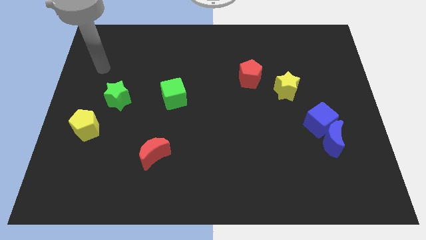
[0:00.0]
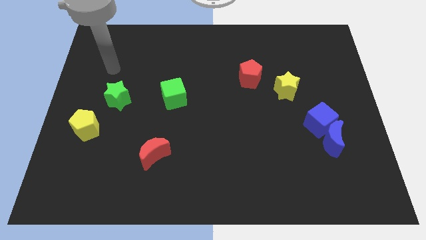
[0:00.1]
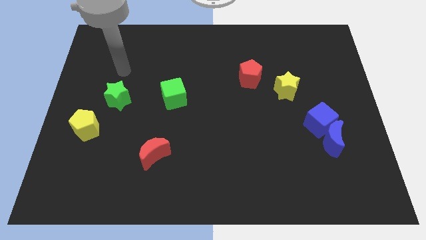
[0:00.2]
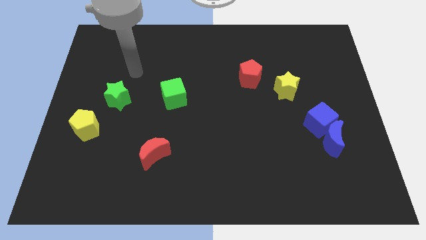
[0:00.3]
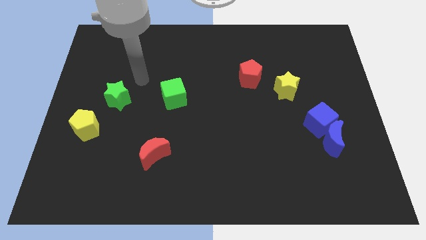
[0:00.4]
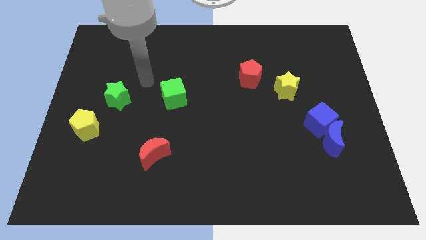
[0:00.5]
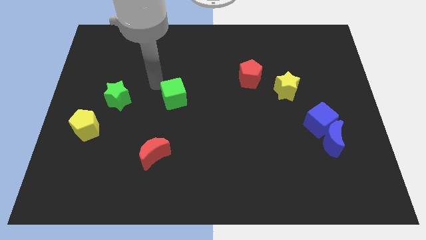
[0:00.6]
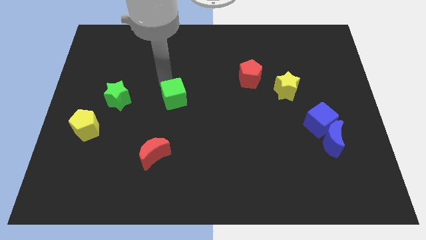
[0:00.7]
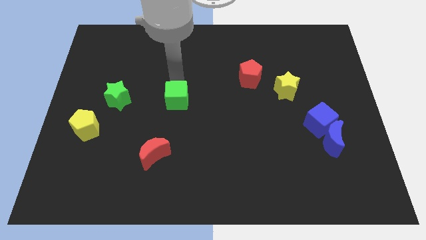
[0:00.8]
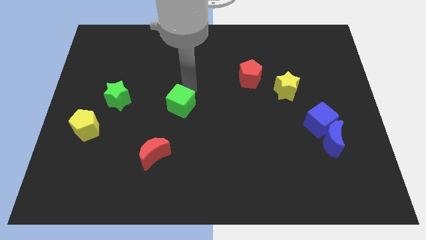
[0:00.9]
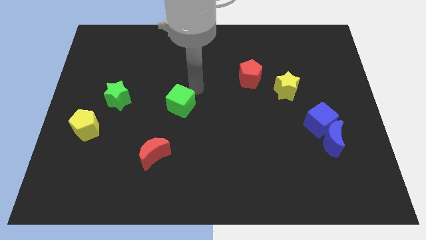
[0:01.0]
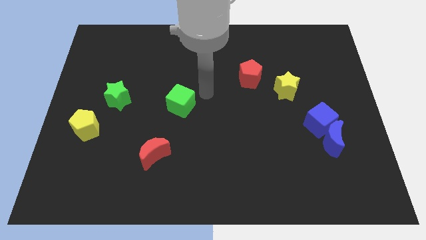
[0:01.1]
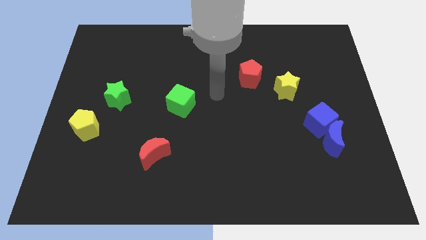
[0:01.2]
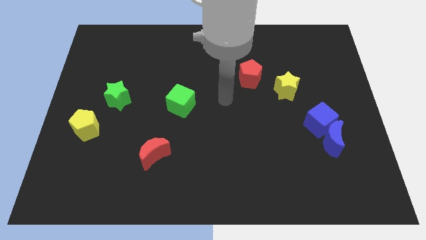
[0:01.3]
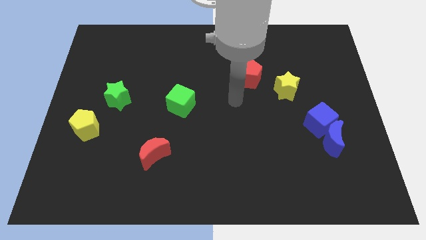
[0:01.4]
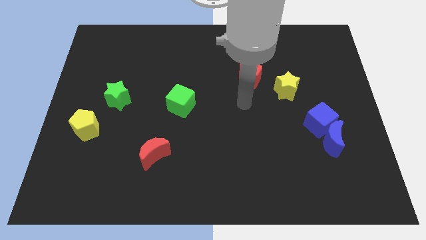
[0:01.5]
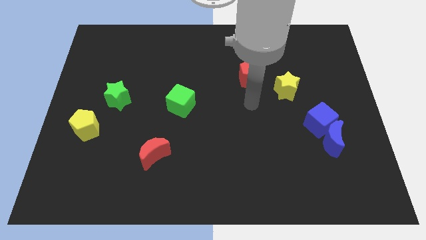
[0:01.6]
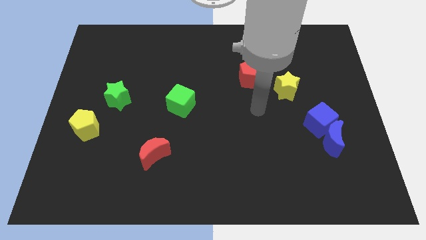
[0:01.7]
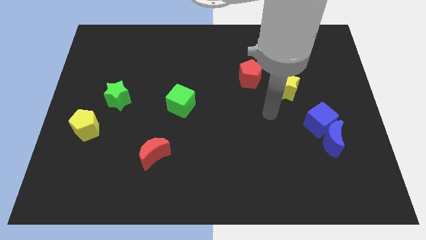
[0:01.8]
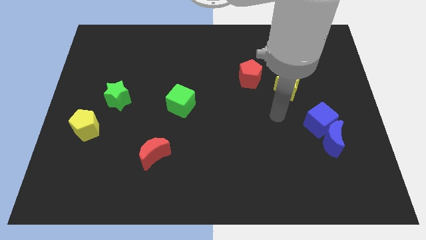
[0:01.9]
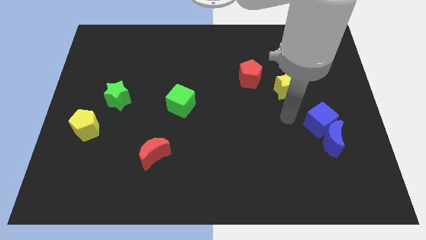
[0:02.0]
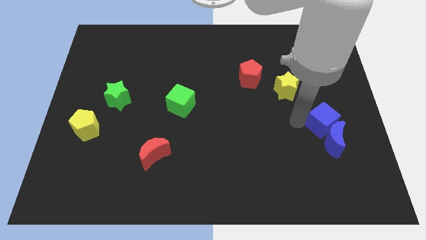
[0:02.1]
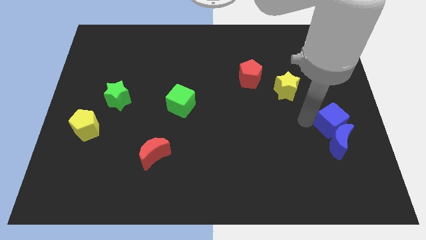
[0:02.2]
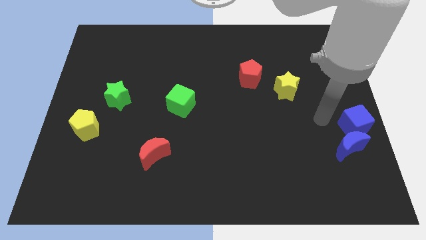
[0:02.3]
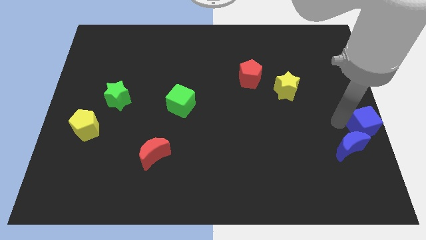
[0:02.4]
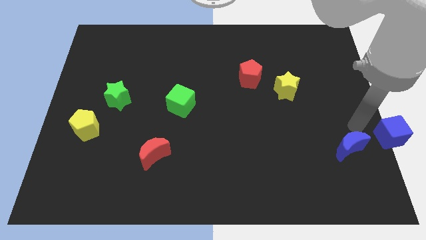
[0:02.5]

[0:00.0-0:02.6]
pull the blue moon apart from the blue cube

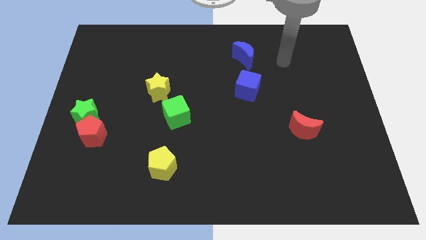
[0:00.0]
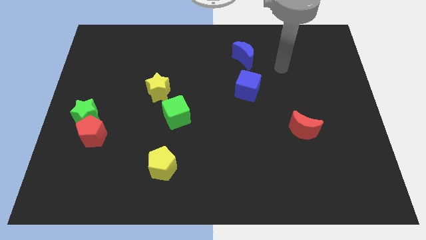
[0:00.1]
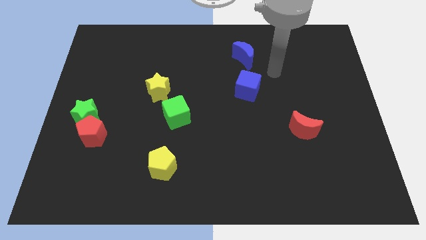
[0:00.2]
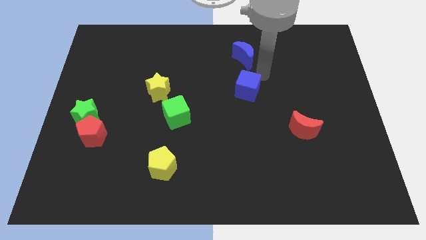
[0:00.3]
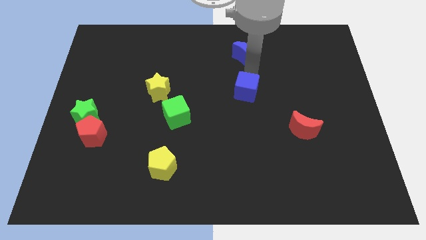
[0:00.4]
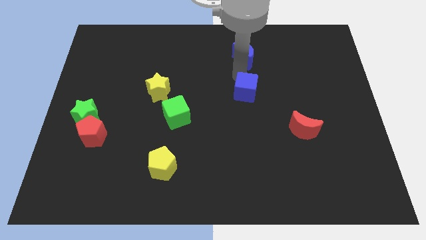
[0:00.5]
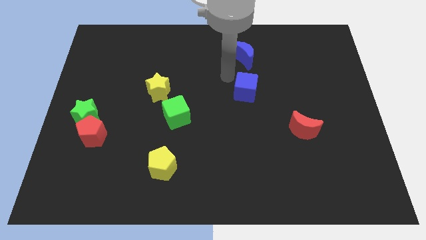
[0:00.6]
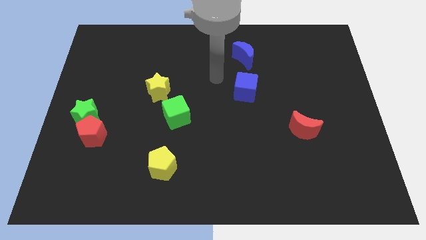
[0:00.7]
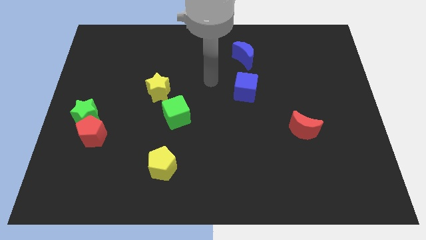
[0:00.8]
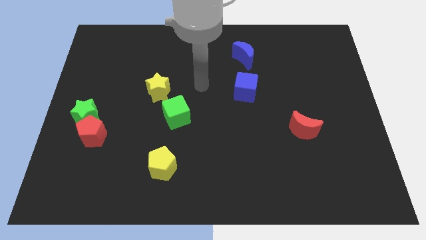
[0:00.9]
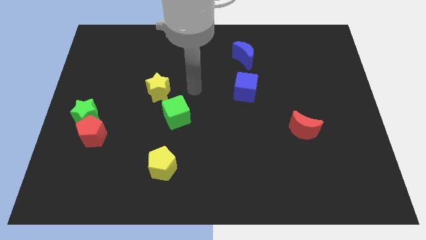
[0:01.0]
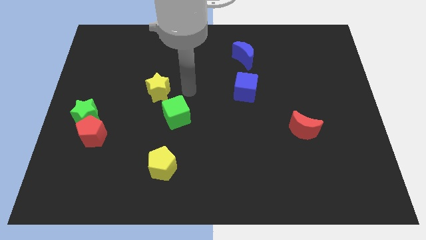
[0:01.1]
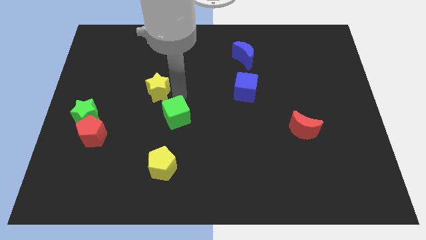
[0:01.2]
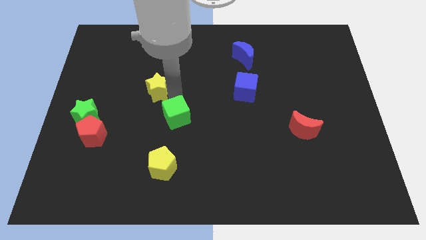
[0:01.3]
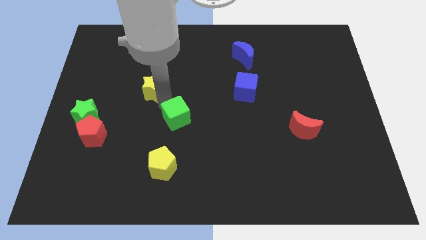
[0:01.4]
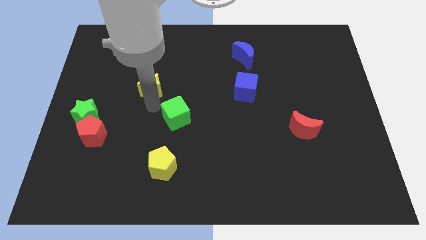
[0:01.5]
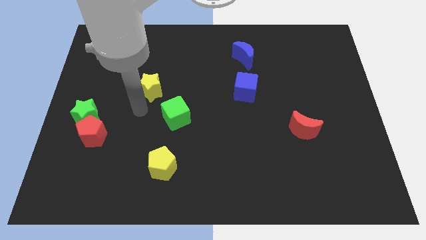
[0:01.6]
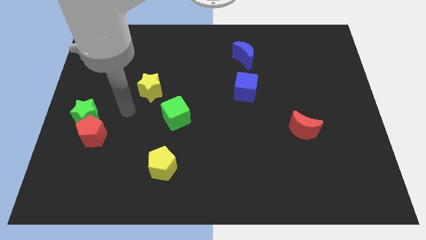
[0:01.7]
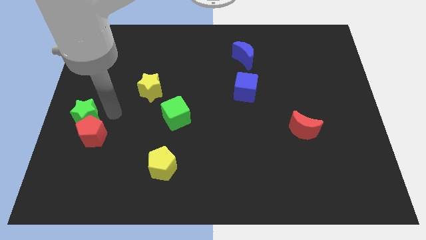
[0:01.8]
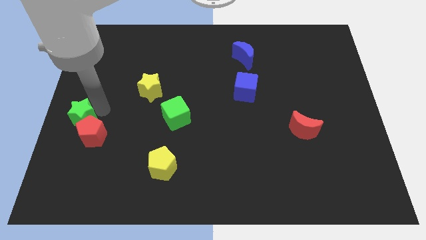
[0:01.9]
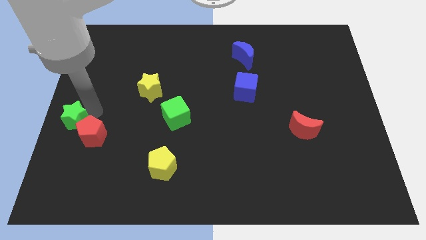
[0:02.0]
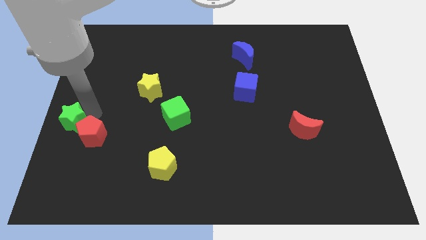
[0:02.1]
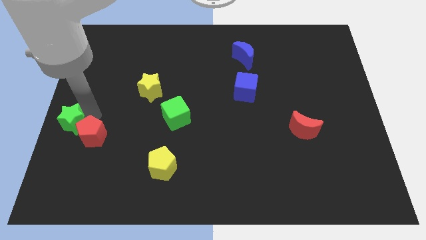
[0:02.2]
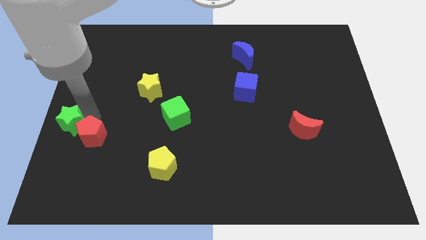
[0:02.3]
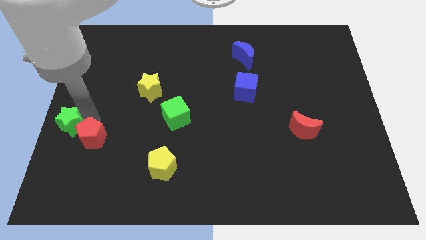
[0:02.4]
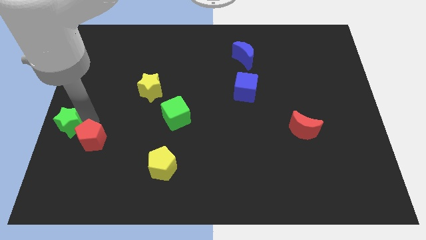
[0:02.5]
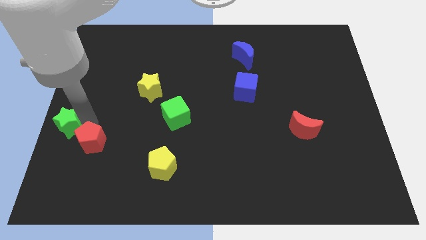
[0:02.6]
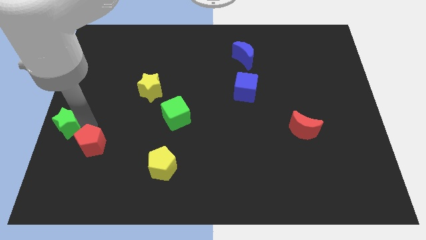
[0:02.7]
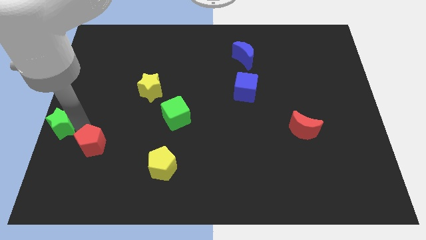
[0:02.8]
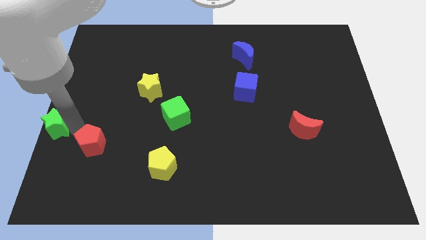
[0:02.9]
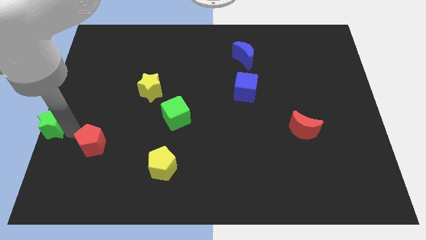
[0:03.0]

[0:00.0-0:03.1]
separate the red pentagon from the green star

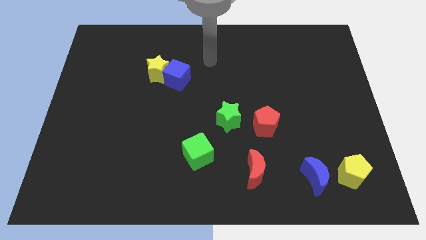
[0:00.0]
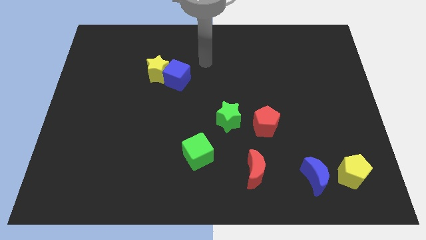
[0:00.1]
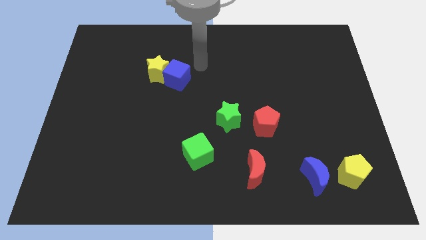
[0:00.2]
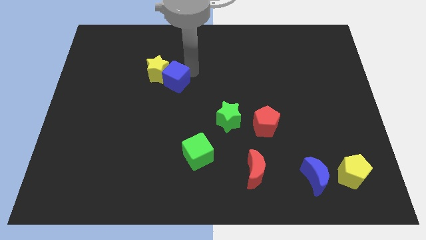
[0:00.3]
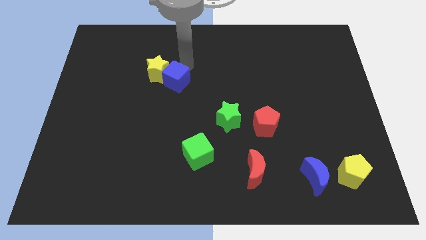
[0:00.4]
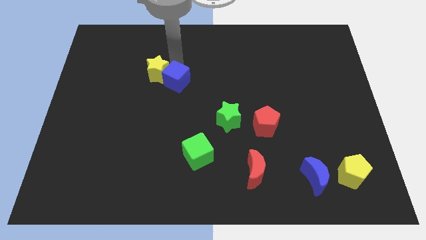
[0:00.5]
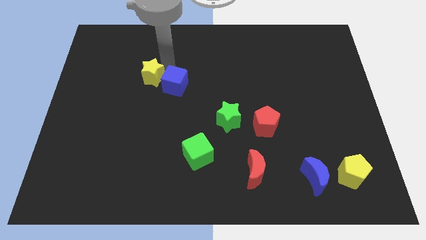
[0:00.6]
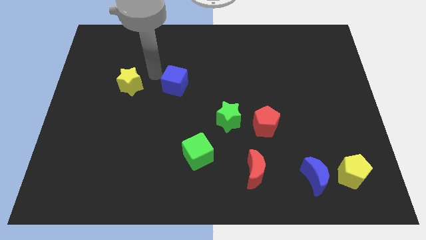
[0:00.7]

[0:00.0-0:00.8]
pull the blue cube apart from the yellow star

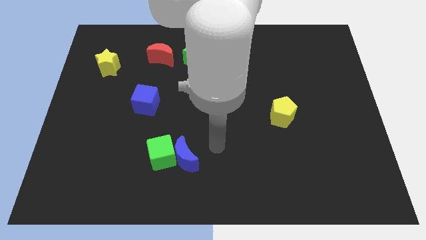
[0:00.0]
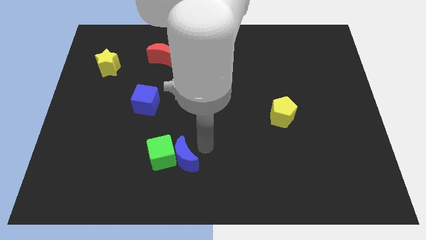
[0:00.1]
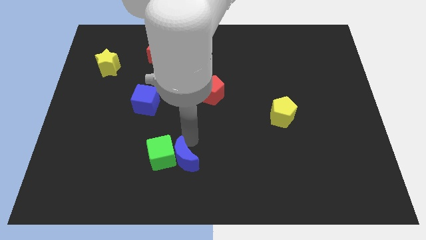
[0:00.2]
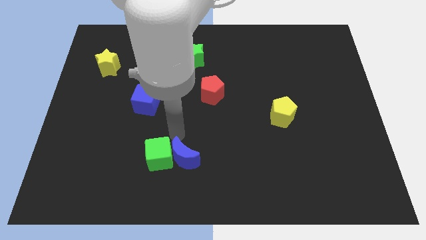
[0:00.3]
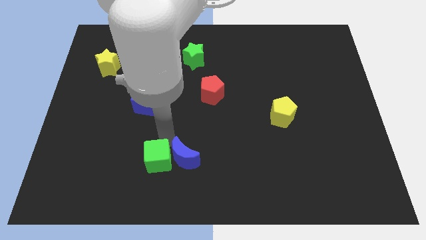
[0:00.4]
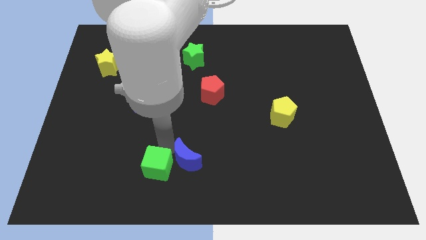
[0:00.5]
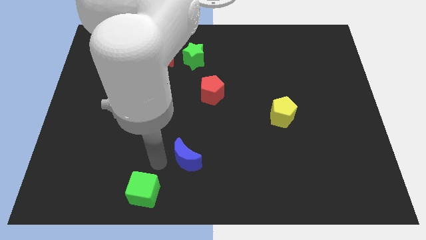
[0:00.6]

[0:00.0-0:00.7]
pull the blue moon apart from the green cube

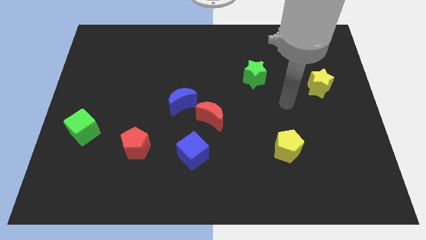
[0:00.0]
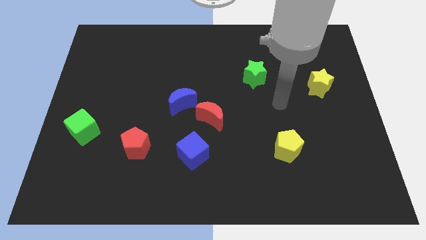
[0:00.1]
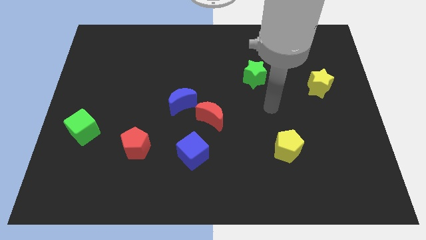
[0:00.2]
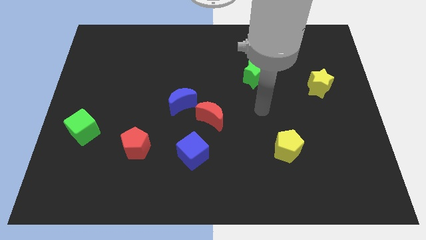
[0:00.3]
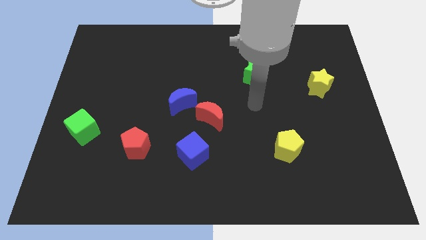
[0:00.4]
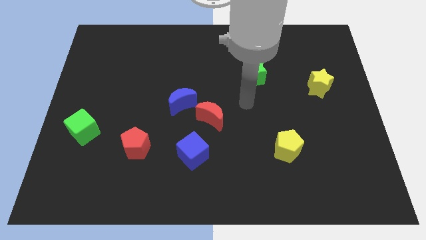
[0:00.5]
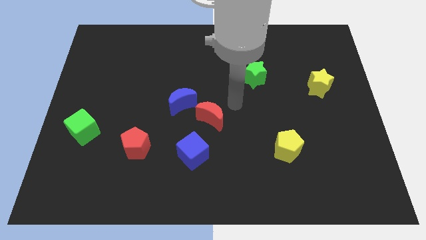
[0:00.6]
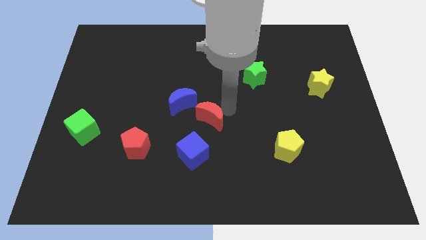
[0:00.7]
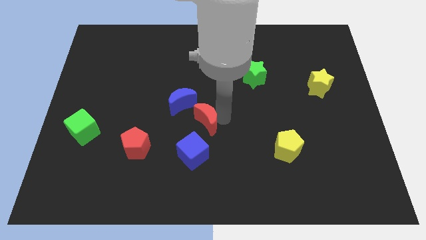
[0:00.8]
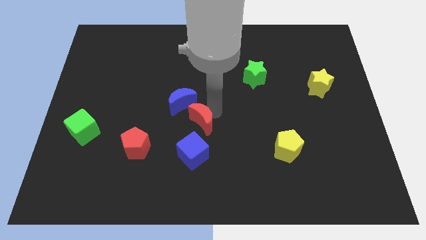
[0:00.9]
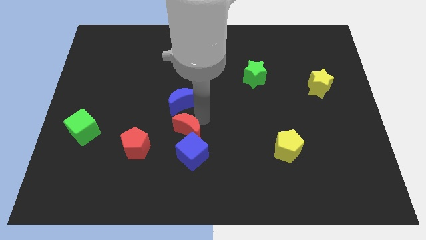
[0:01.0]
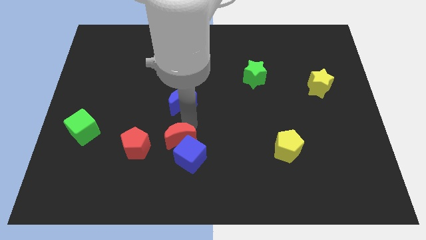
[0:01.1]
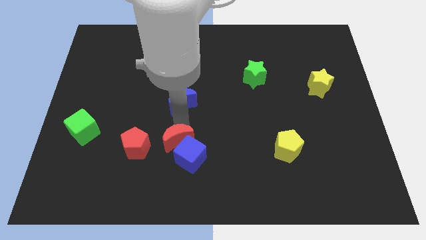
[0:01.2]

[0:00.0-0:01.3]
separate the blue moon from the red moon

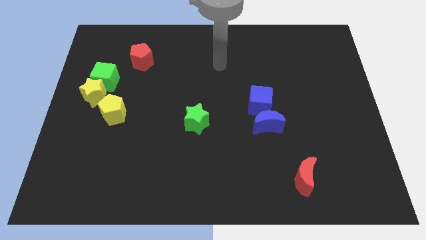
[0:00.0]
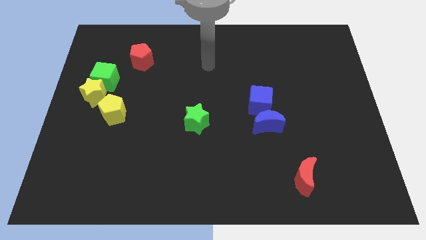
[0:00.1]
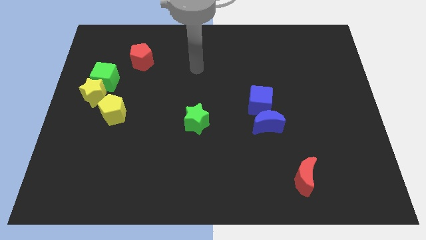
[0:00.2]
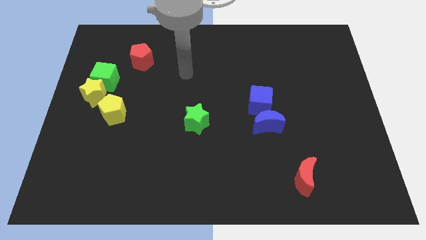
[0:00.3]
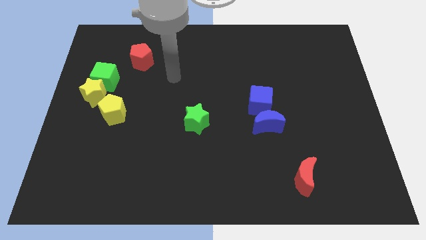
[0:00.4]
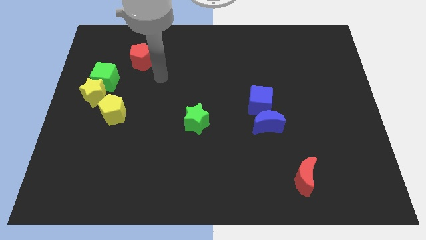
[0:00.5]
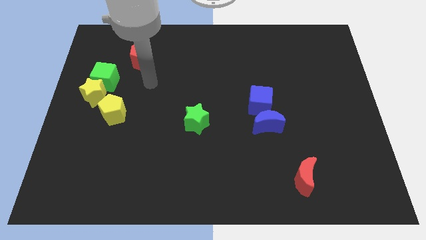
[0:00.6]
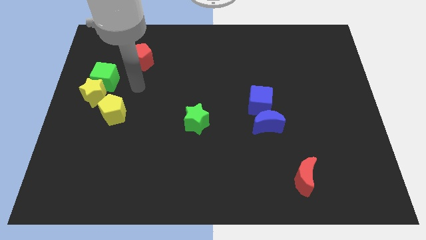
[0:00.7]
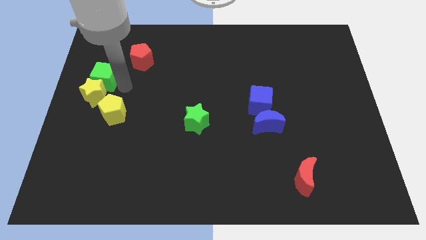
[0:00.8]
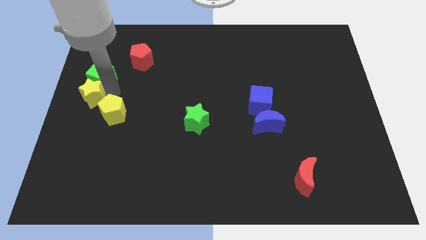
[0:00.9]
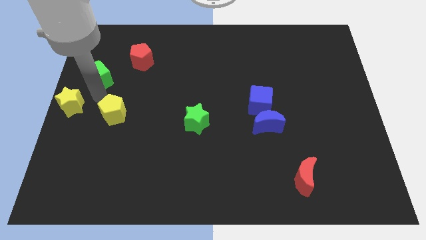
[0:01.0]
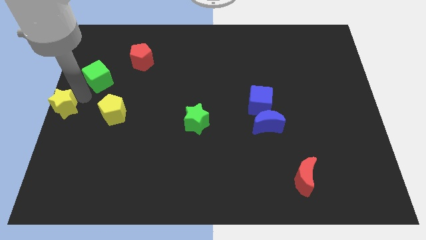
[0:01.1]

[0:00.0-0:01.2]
pull the green cube apart from the yellow star
